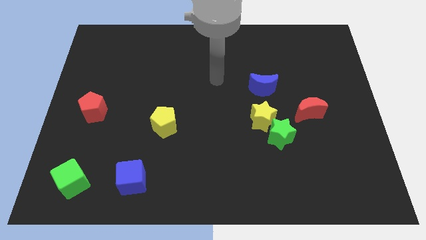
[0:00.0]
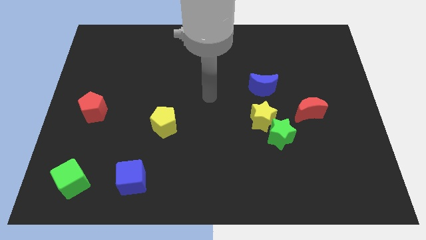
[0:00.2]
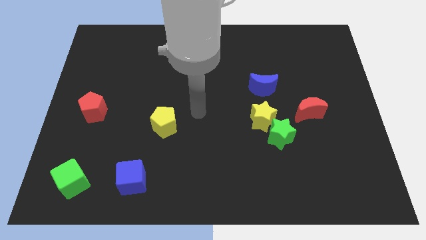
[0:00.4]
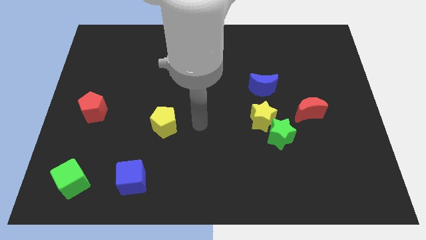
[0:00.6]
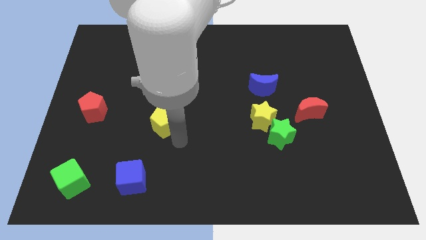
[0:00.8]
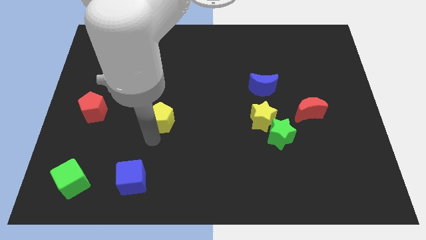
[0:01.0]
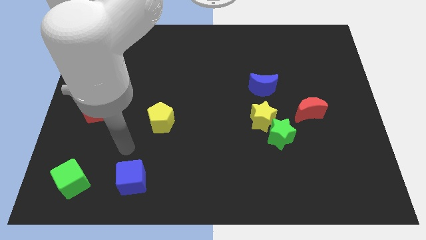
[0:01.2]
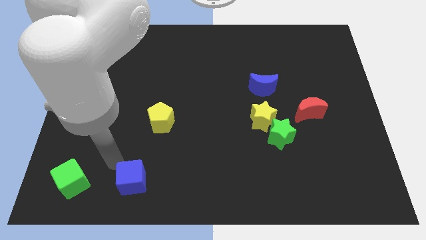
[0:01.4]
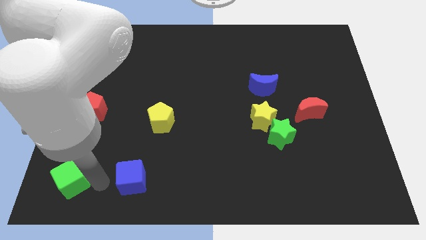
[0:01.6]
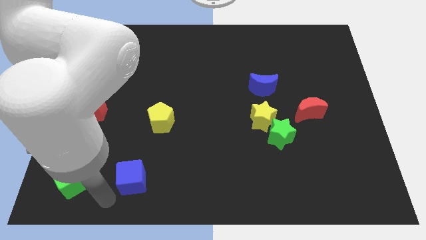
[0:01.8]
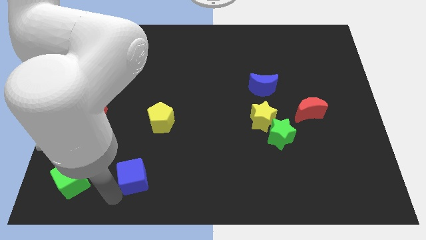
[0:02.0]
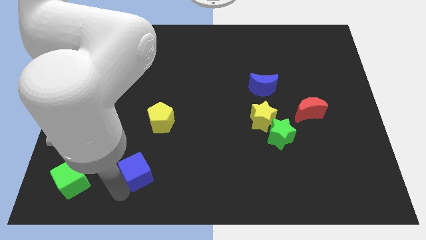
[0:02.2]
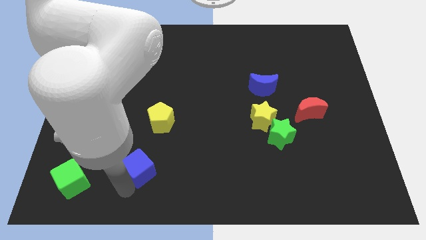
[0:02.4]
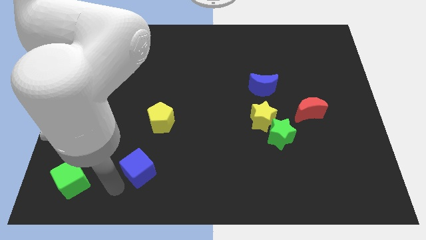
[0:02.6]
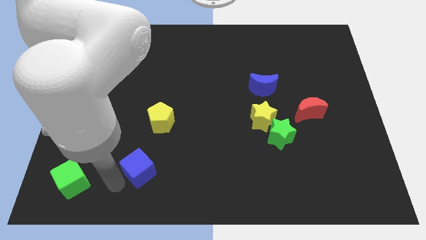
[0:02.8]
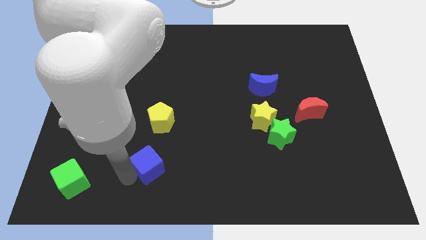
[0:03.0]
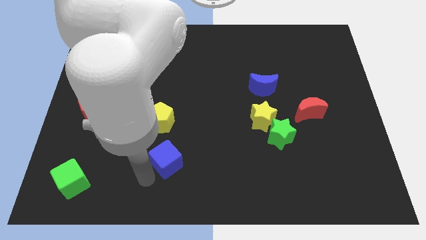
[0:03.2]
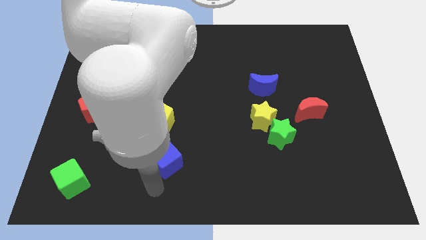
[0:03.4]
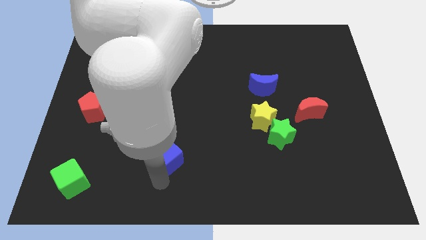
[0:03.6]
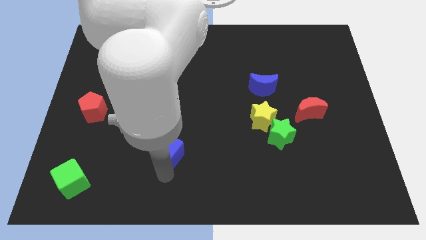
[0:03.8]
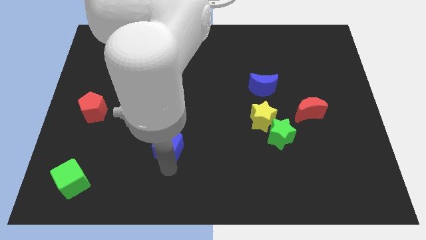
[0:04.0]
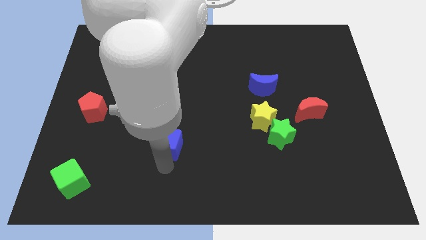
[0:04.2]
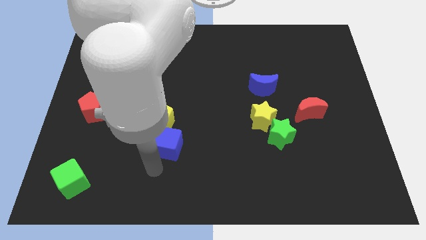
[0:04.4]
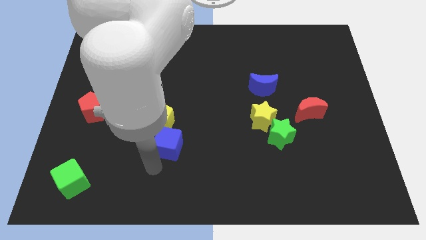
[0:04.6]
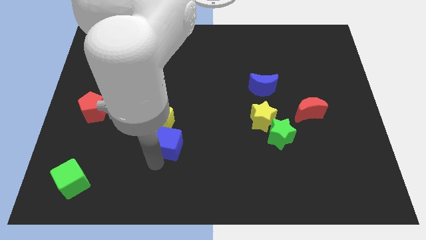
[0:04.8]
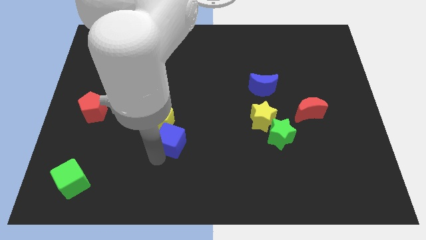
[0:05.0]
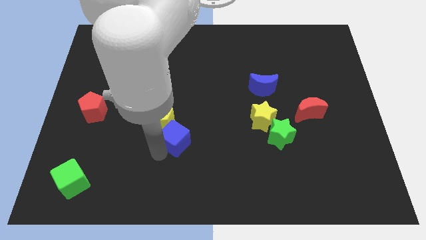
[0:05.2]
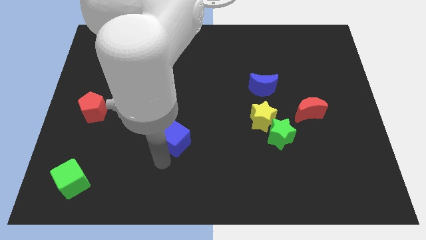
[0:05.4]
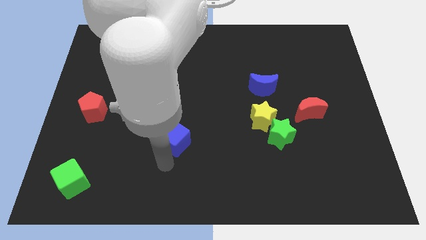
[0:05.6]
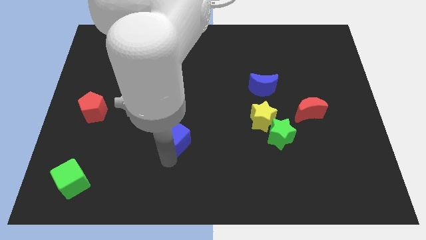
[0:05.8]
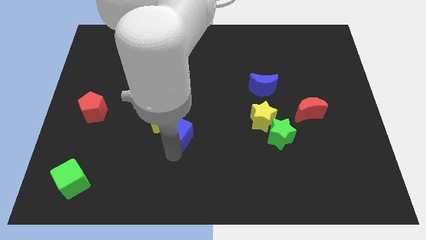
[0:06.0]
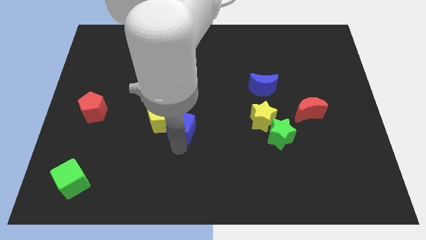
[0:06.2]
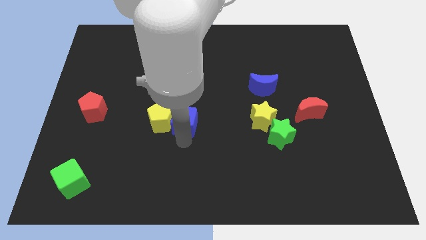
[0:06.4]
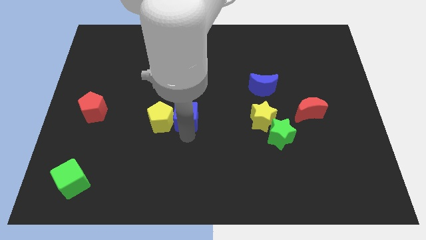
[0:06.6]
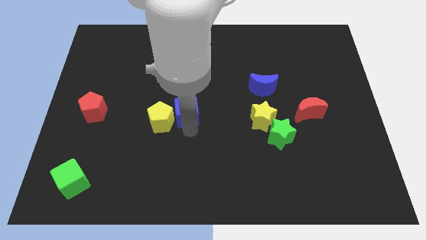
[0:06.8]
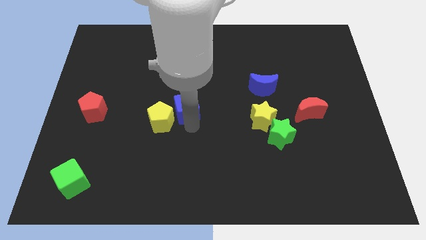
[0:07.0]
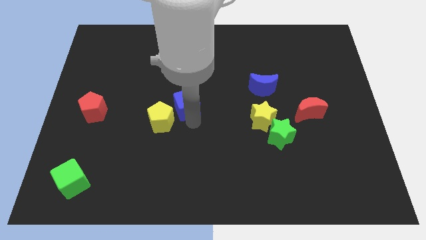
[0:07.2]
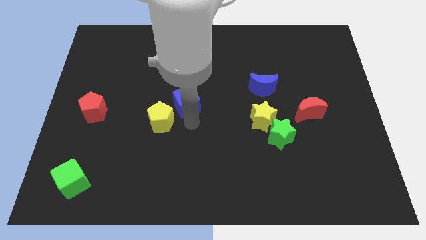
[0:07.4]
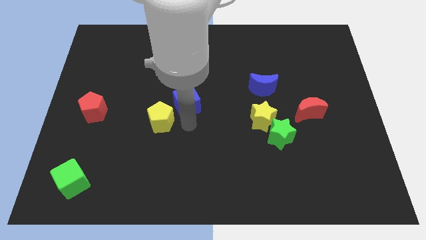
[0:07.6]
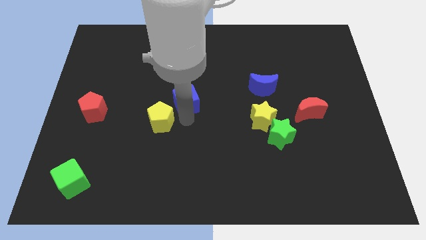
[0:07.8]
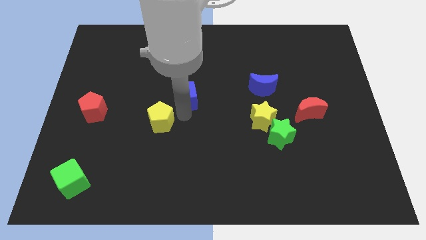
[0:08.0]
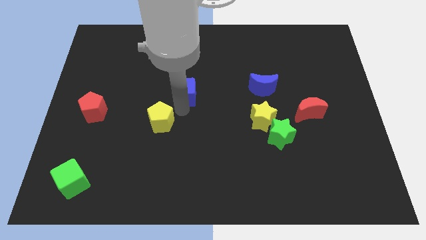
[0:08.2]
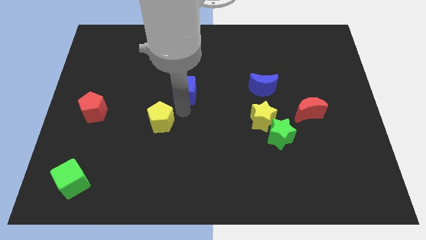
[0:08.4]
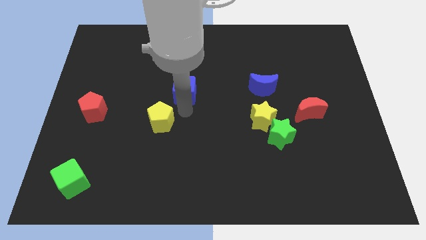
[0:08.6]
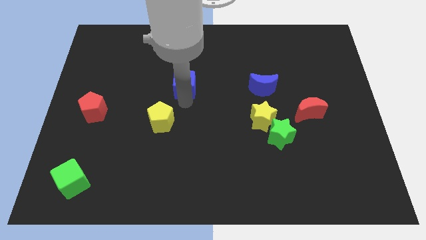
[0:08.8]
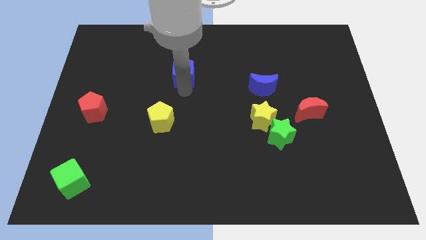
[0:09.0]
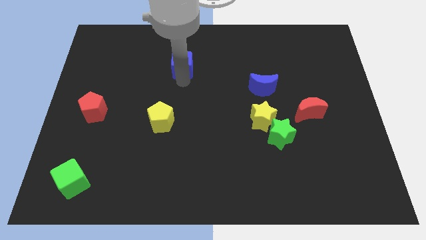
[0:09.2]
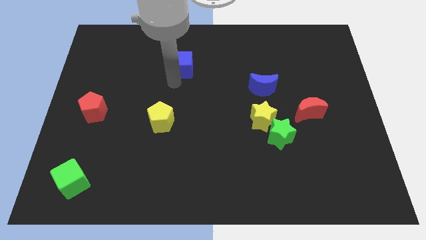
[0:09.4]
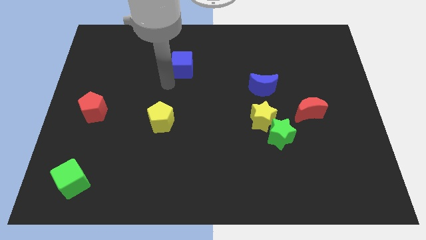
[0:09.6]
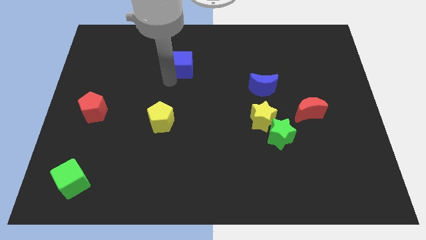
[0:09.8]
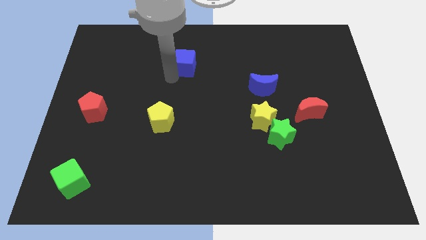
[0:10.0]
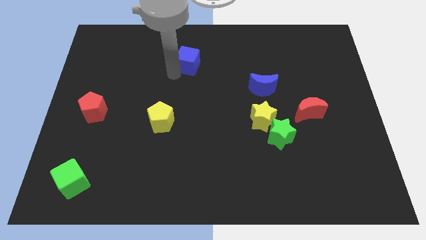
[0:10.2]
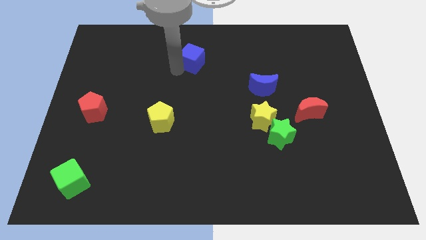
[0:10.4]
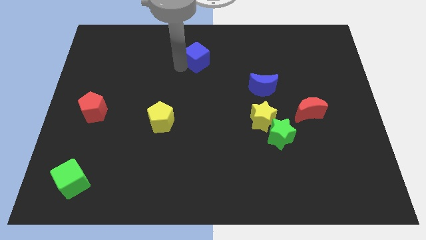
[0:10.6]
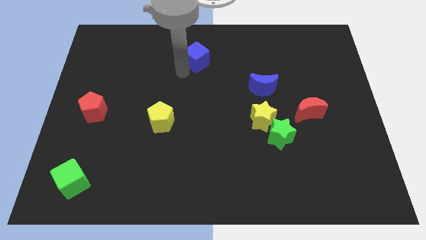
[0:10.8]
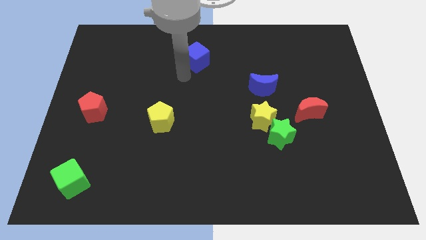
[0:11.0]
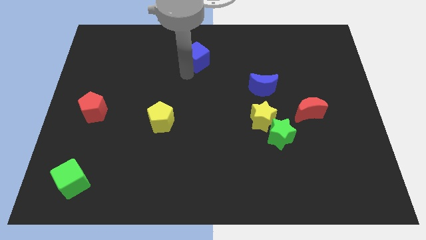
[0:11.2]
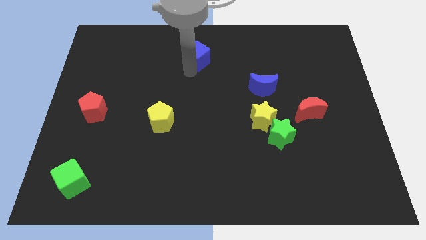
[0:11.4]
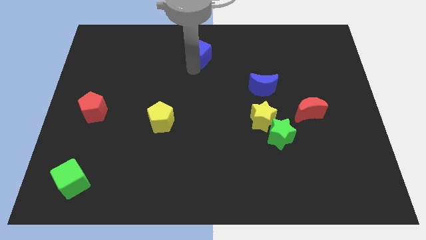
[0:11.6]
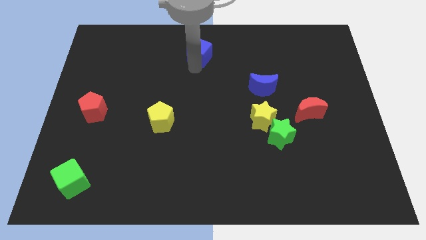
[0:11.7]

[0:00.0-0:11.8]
move the blue cube to the towards your base

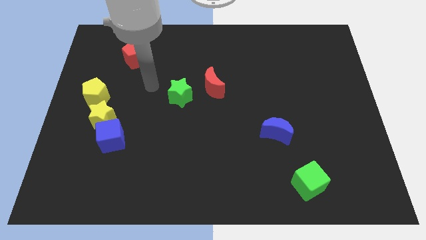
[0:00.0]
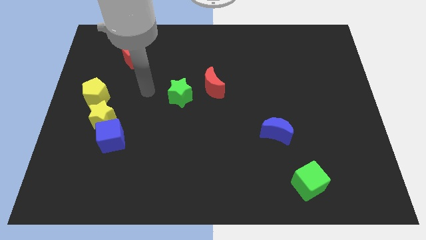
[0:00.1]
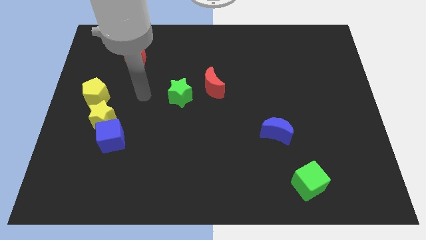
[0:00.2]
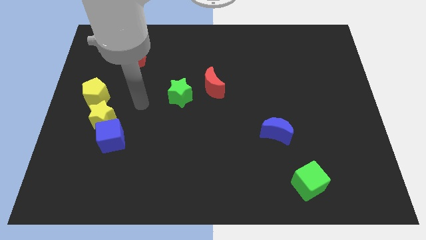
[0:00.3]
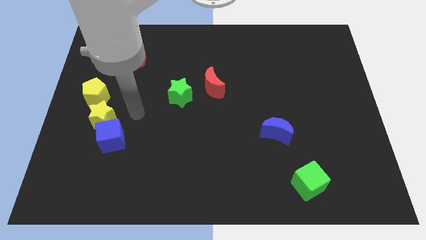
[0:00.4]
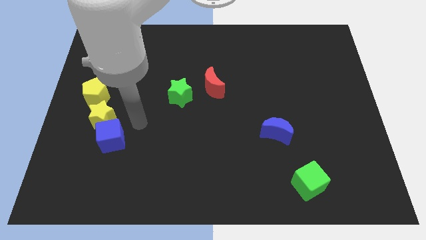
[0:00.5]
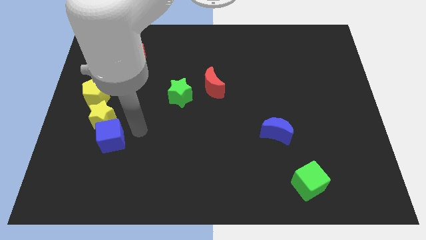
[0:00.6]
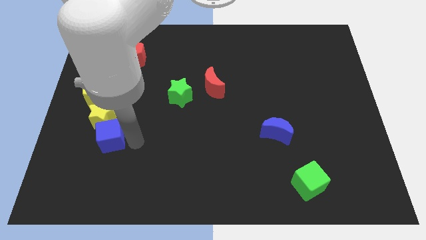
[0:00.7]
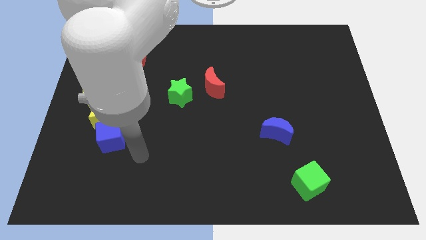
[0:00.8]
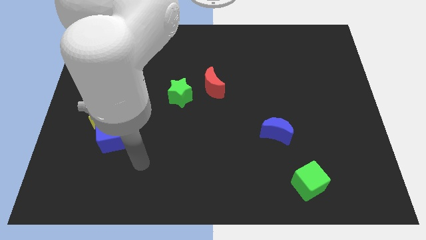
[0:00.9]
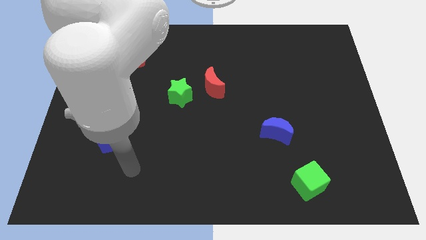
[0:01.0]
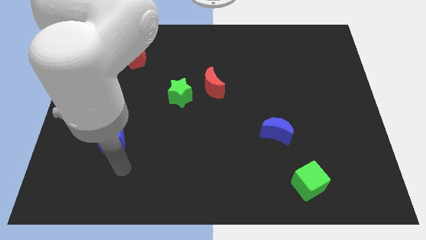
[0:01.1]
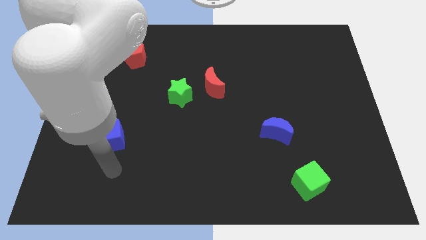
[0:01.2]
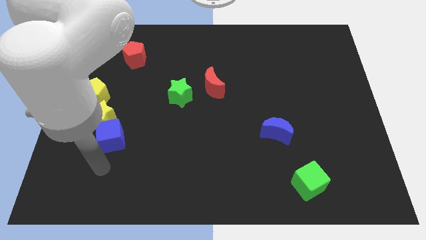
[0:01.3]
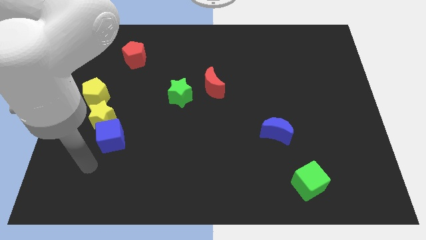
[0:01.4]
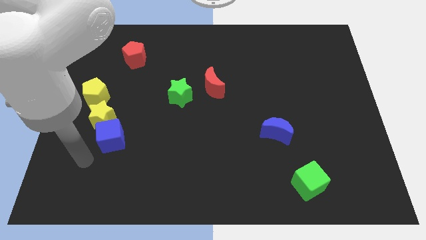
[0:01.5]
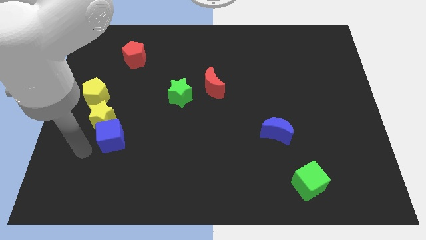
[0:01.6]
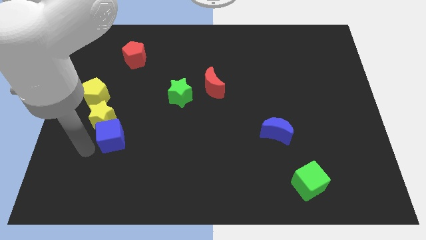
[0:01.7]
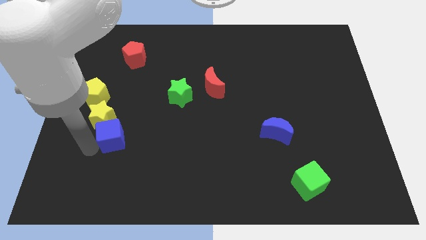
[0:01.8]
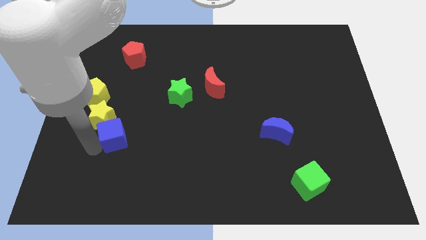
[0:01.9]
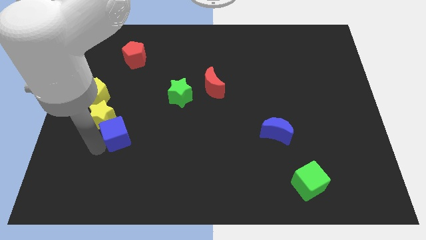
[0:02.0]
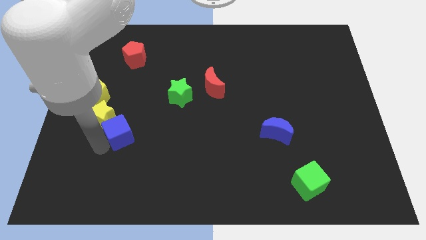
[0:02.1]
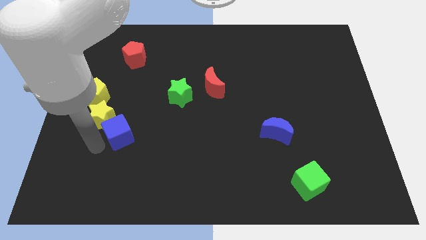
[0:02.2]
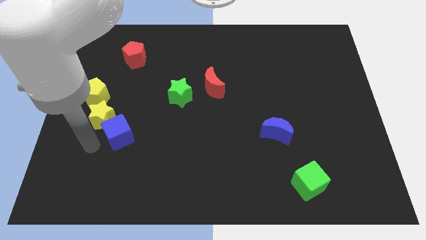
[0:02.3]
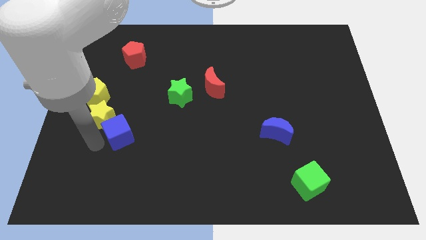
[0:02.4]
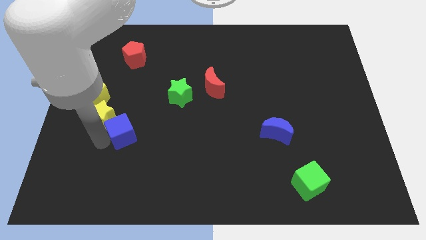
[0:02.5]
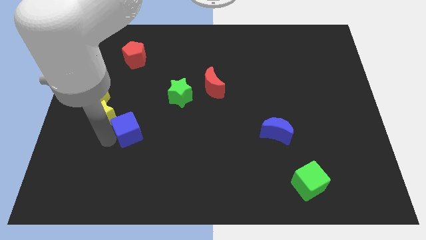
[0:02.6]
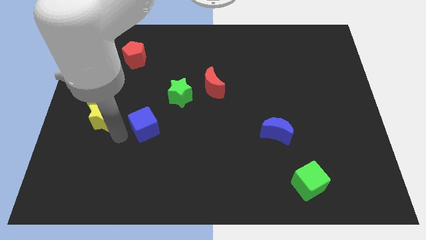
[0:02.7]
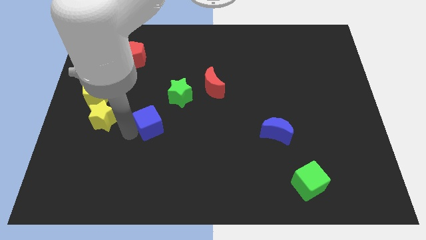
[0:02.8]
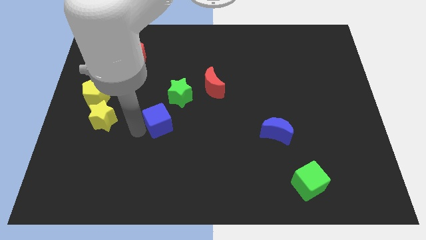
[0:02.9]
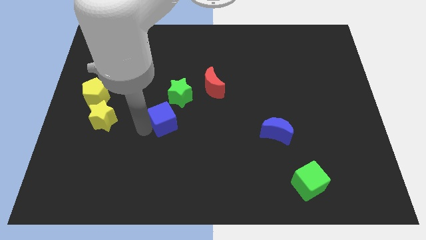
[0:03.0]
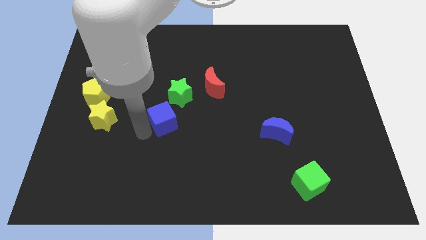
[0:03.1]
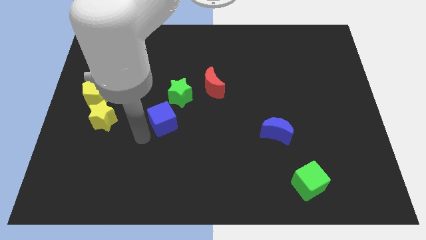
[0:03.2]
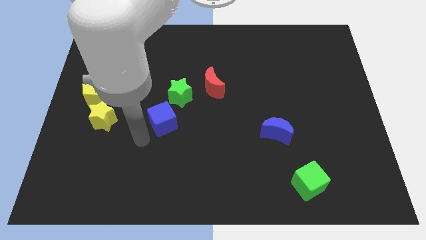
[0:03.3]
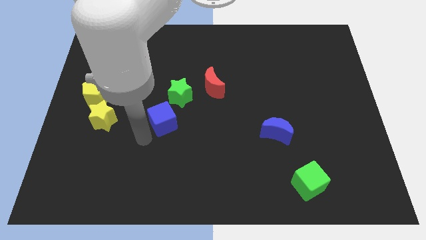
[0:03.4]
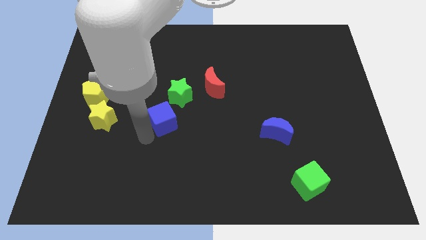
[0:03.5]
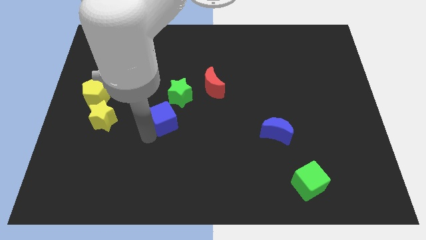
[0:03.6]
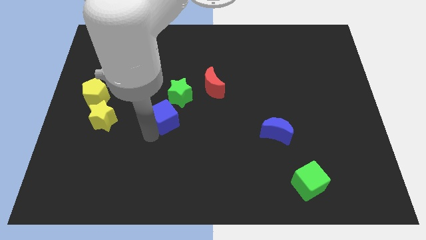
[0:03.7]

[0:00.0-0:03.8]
slide the blue cube to the middle of the board
